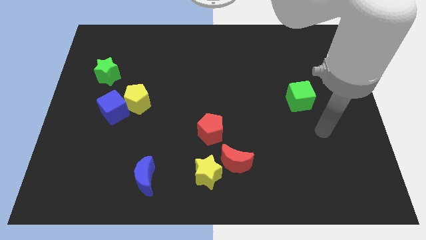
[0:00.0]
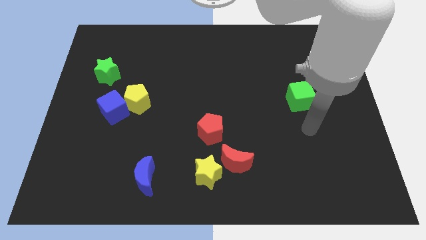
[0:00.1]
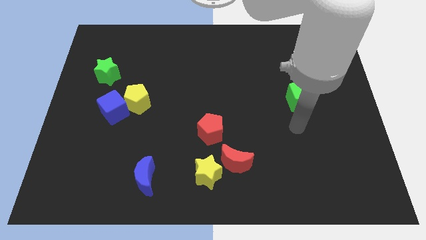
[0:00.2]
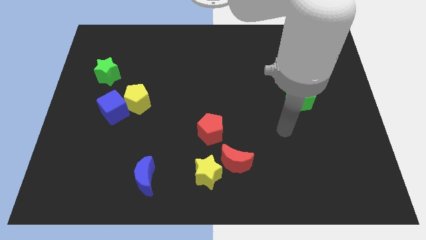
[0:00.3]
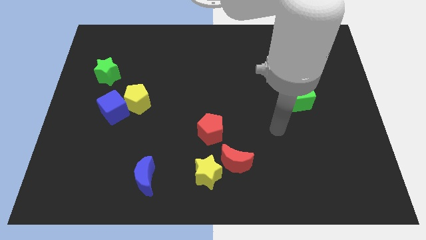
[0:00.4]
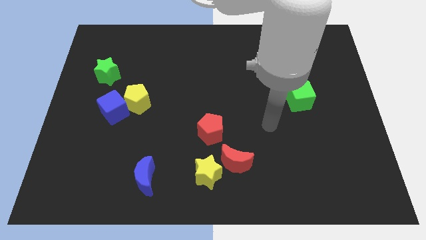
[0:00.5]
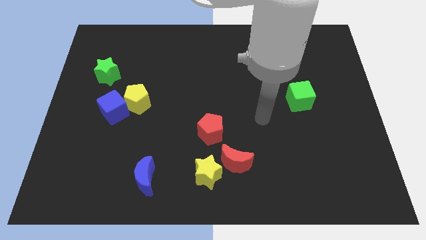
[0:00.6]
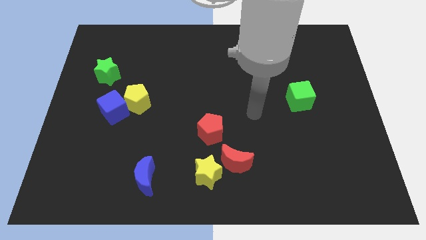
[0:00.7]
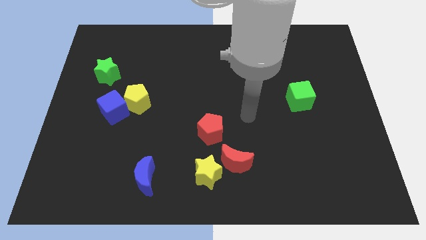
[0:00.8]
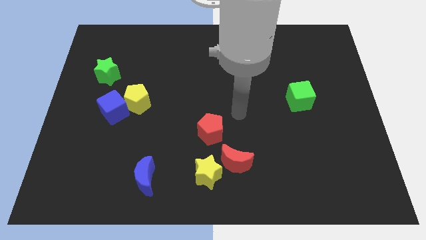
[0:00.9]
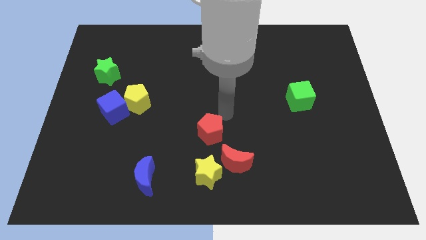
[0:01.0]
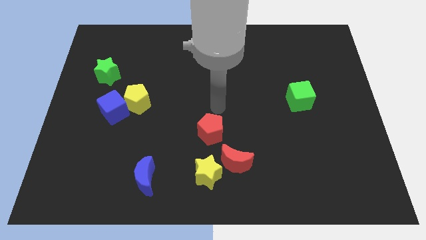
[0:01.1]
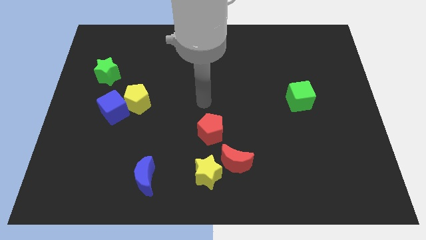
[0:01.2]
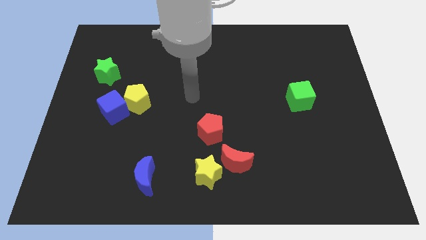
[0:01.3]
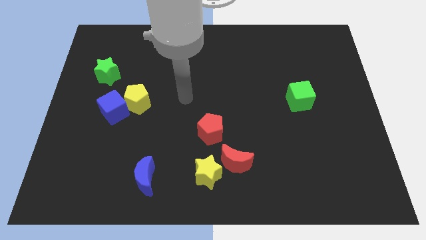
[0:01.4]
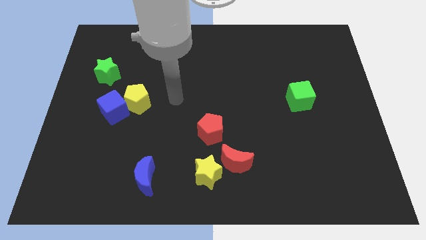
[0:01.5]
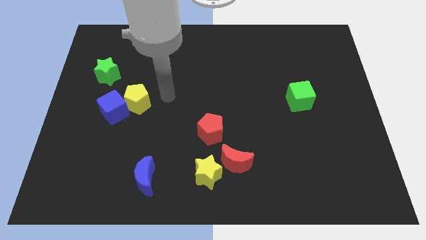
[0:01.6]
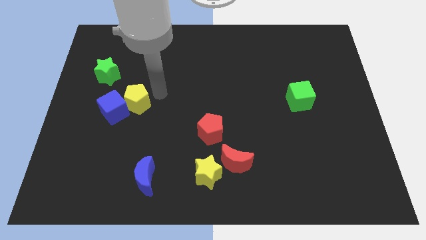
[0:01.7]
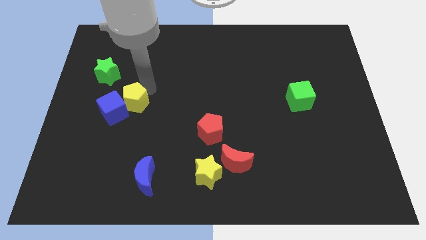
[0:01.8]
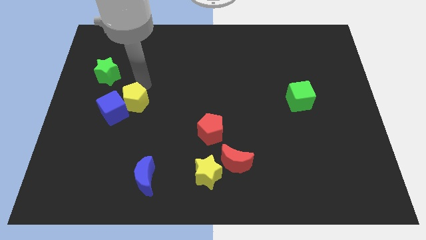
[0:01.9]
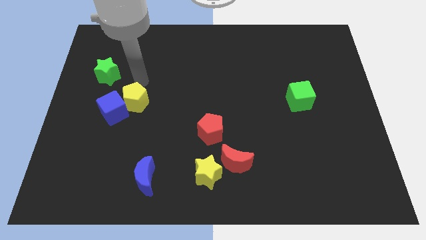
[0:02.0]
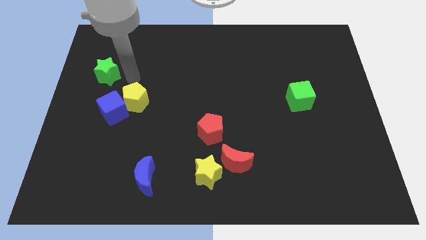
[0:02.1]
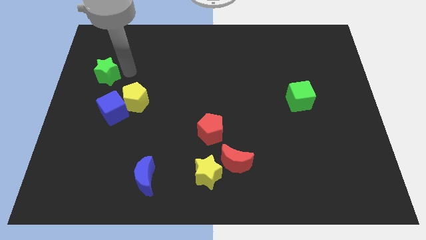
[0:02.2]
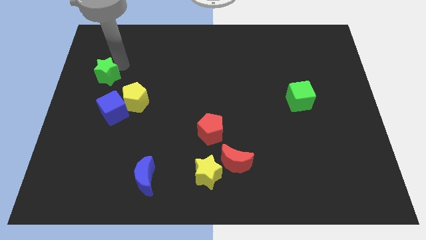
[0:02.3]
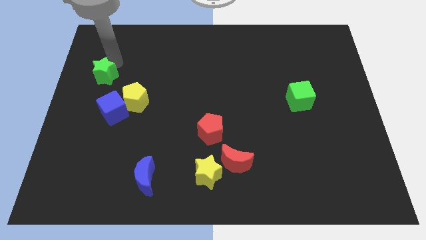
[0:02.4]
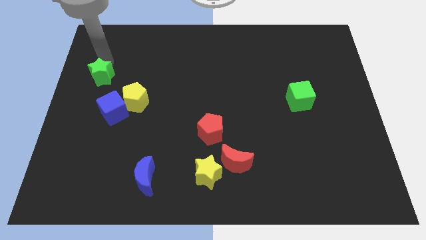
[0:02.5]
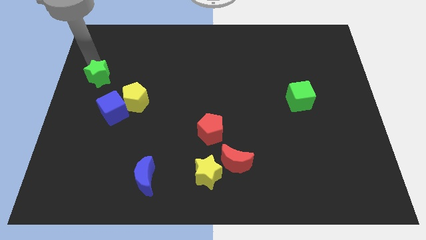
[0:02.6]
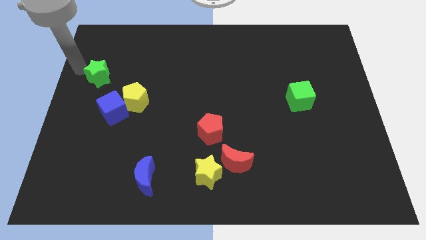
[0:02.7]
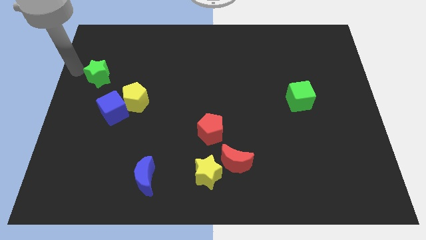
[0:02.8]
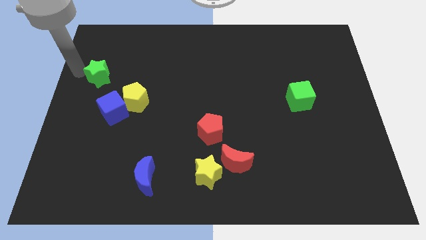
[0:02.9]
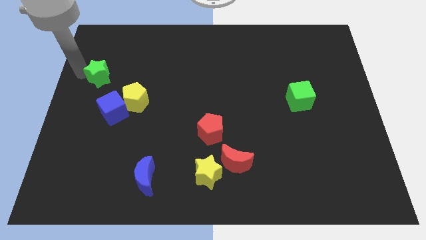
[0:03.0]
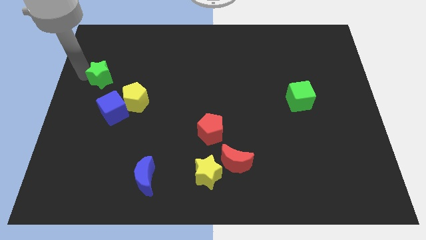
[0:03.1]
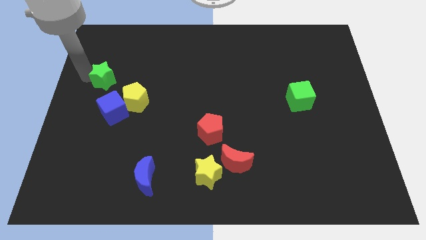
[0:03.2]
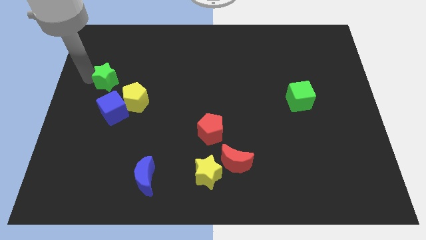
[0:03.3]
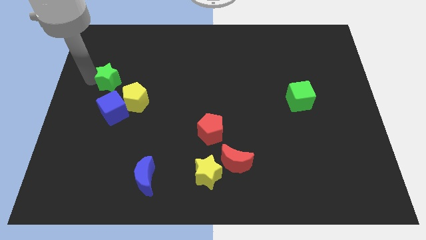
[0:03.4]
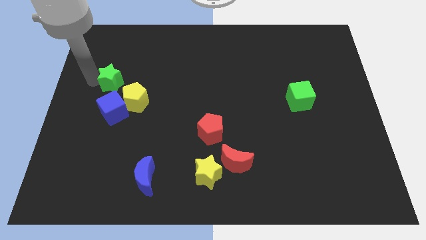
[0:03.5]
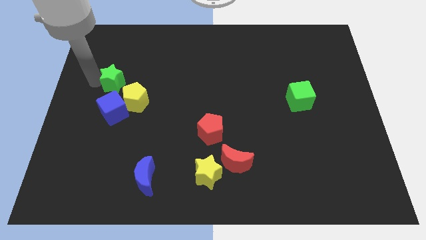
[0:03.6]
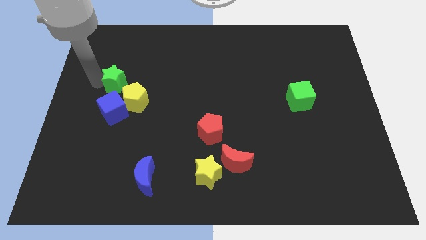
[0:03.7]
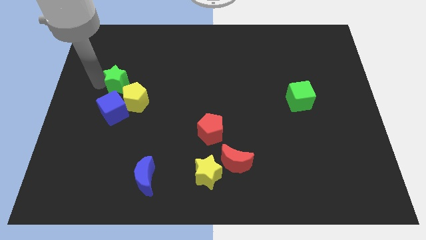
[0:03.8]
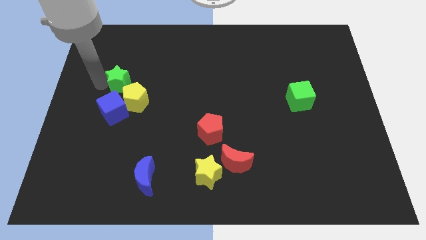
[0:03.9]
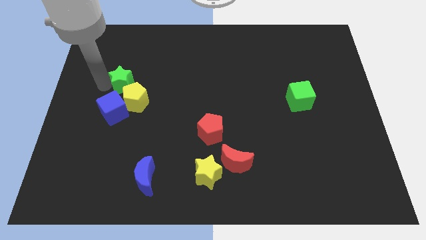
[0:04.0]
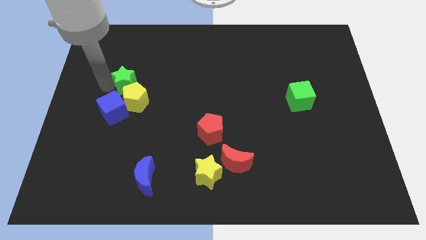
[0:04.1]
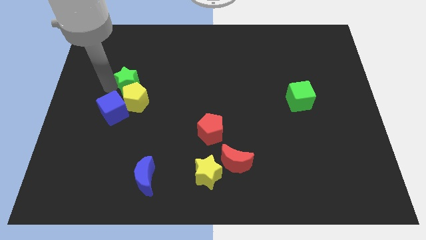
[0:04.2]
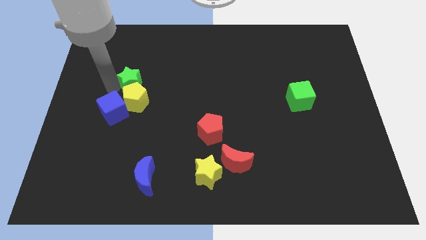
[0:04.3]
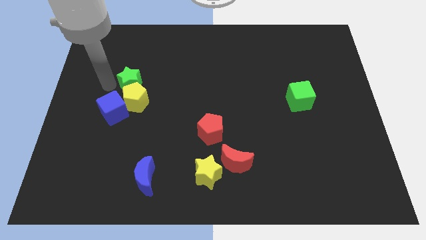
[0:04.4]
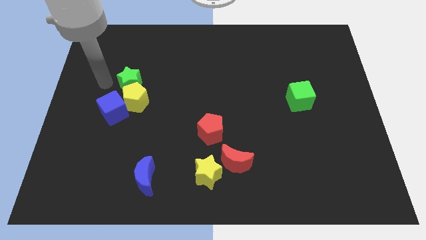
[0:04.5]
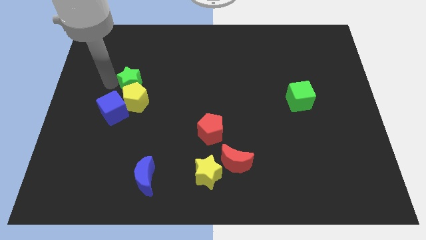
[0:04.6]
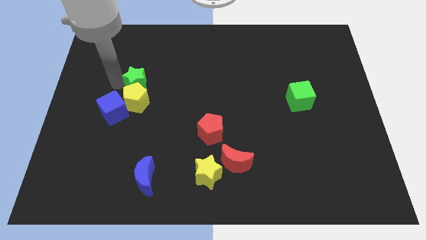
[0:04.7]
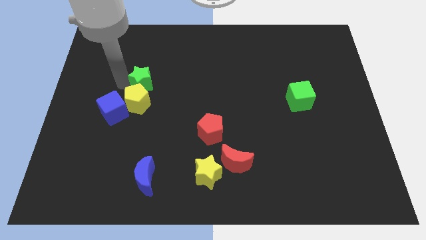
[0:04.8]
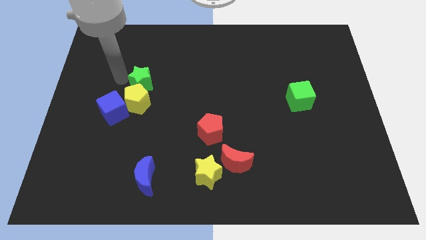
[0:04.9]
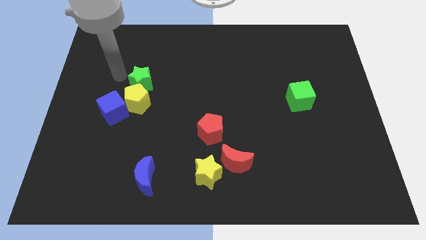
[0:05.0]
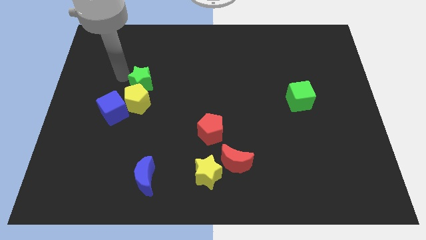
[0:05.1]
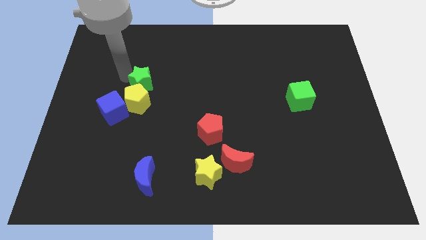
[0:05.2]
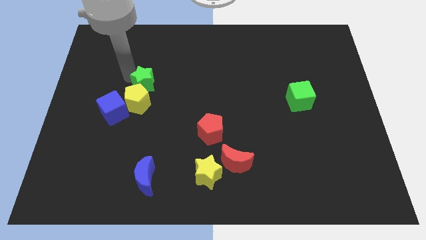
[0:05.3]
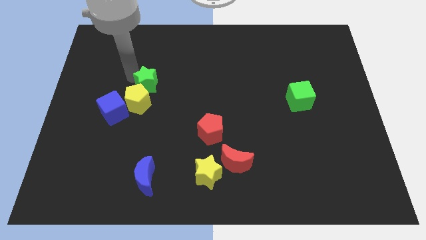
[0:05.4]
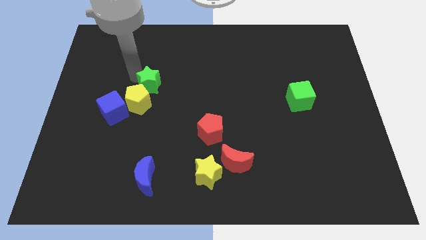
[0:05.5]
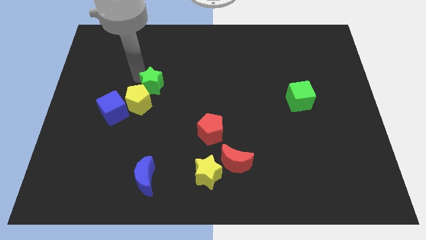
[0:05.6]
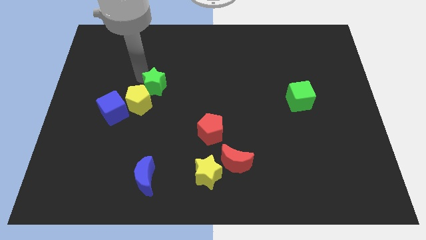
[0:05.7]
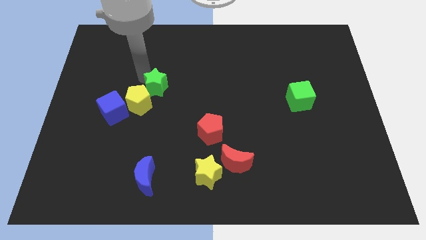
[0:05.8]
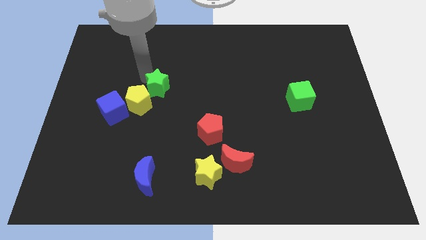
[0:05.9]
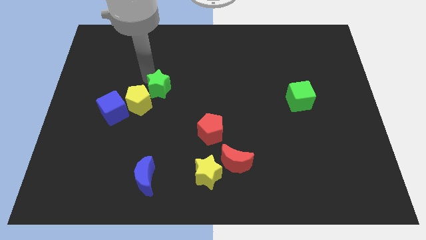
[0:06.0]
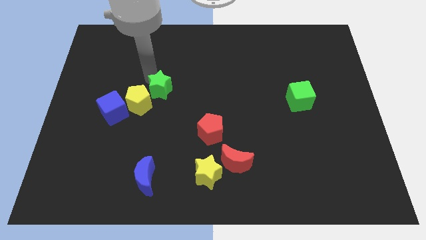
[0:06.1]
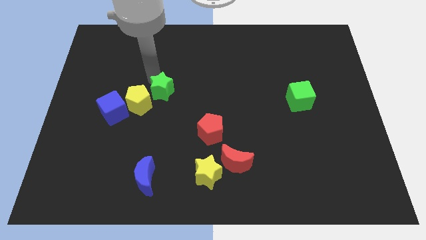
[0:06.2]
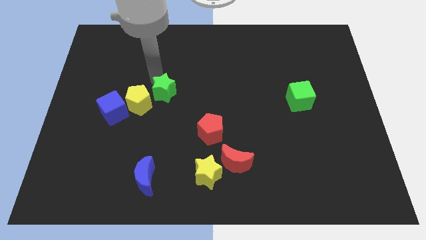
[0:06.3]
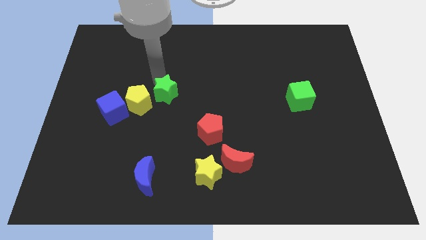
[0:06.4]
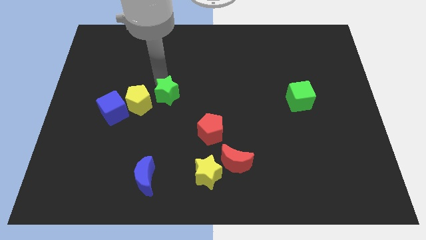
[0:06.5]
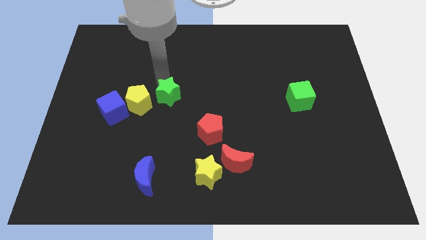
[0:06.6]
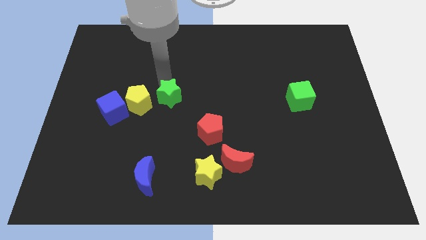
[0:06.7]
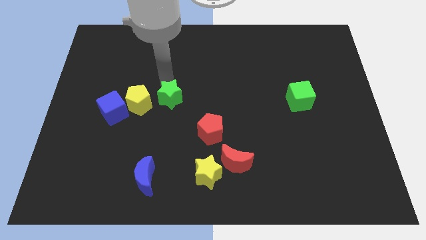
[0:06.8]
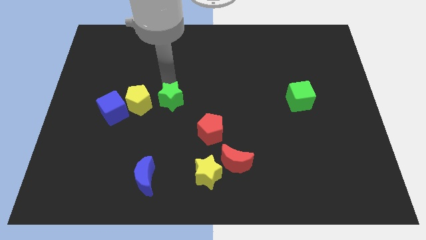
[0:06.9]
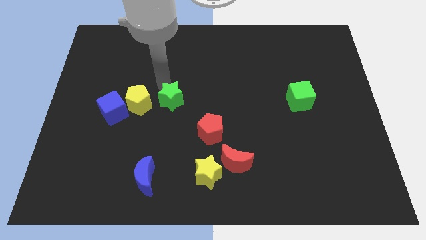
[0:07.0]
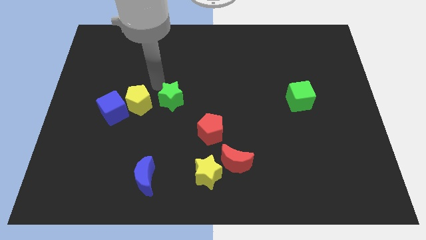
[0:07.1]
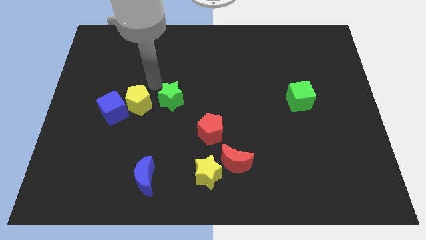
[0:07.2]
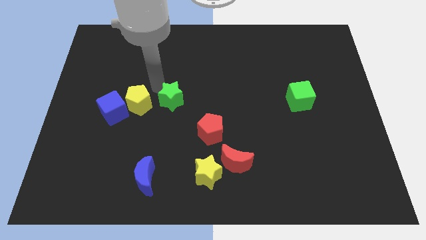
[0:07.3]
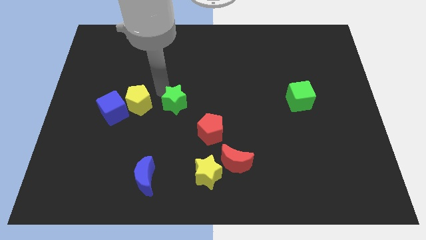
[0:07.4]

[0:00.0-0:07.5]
put the green star to the top left side of the red pentagon

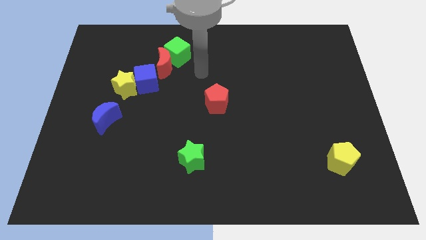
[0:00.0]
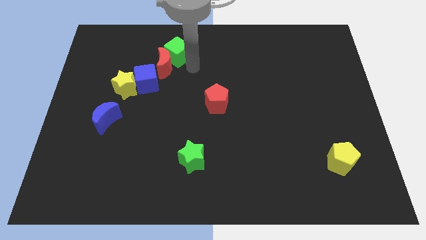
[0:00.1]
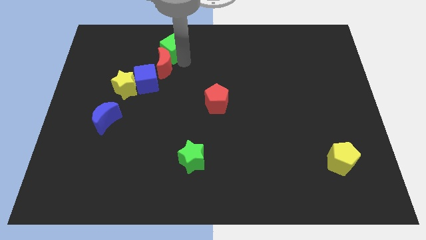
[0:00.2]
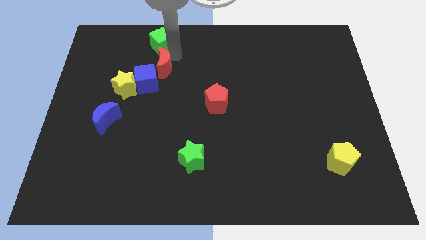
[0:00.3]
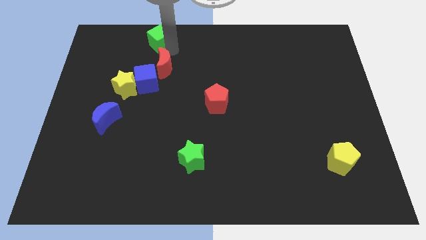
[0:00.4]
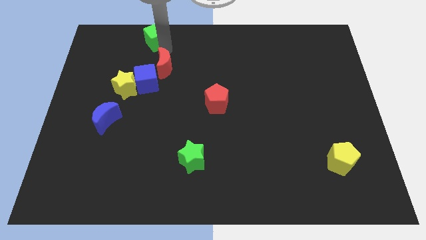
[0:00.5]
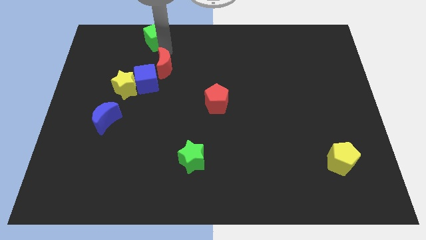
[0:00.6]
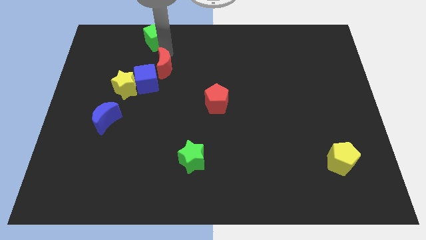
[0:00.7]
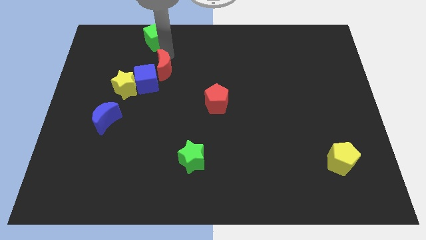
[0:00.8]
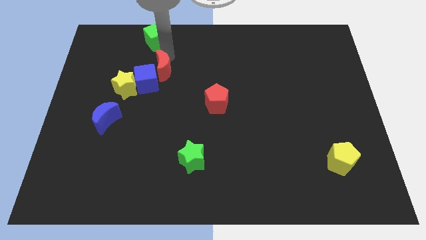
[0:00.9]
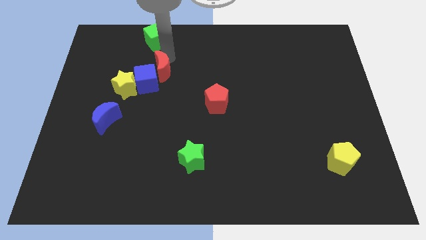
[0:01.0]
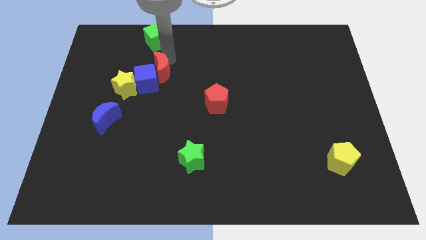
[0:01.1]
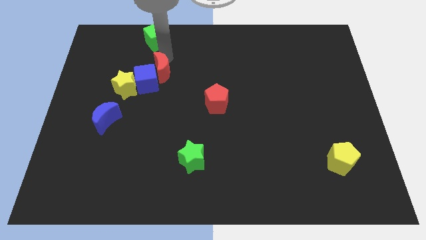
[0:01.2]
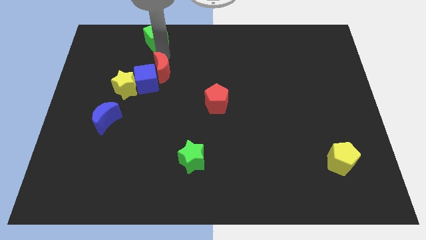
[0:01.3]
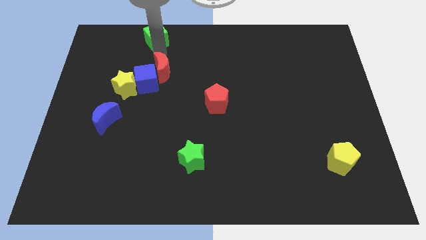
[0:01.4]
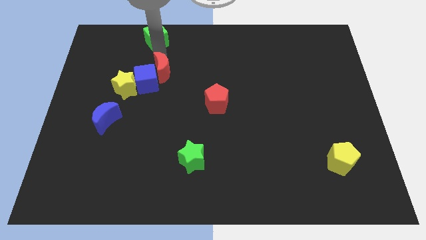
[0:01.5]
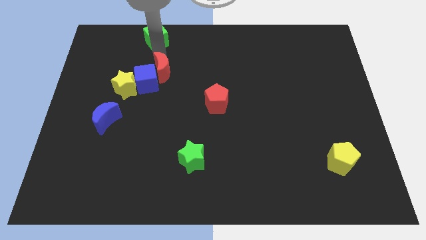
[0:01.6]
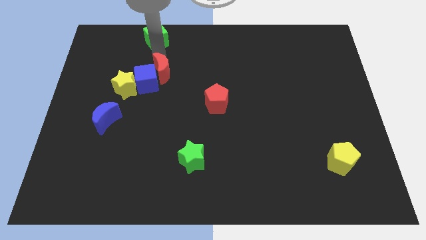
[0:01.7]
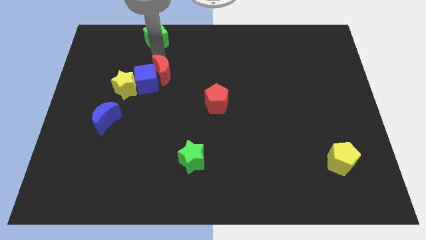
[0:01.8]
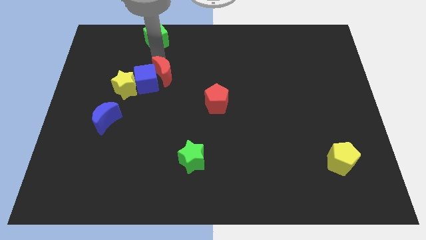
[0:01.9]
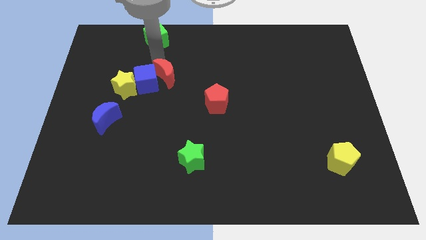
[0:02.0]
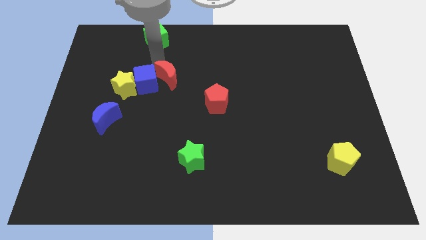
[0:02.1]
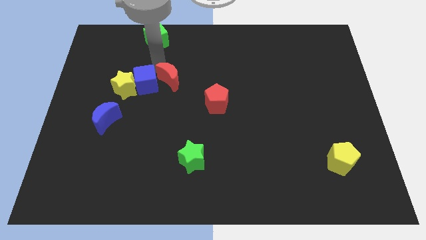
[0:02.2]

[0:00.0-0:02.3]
push the red moon diagonally down and to the right of the blue cube
